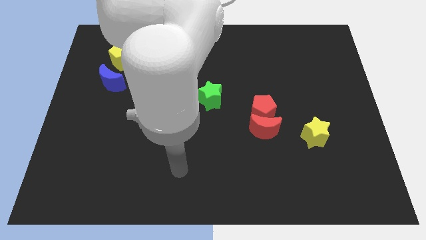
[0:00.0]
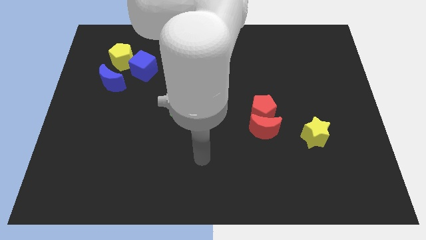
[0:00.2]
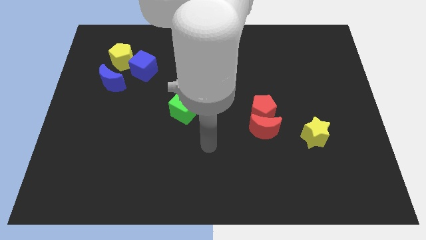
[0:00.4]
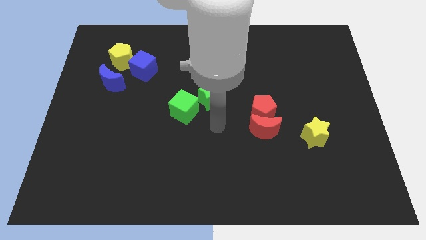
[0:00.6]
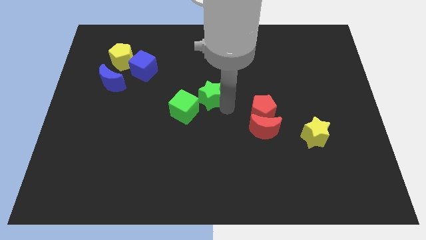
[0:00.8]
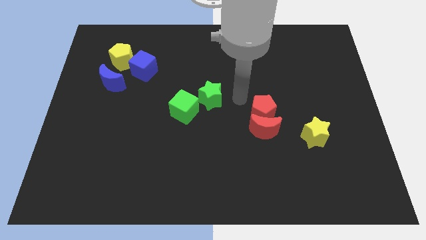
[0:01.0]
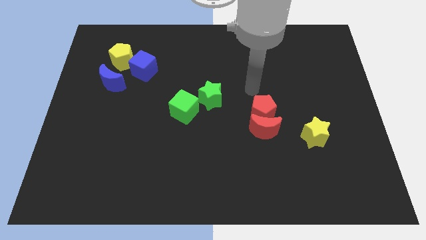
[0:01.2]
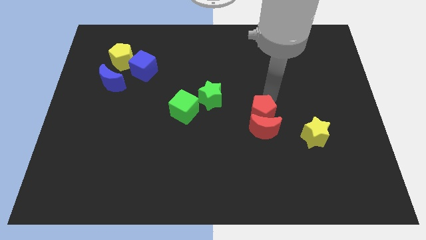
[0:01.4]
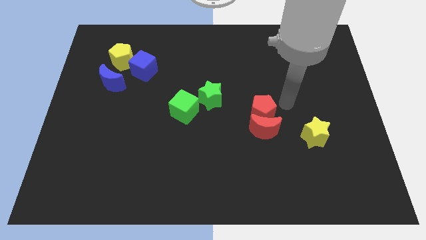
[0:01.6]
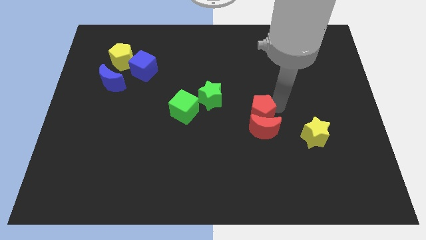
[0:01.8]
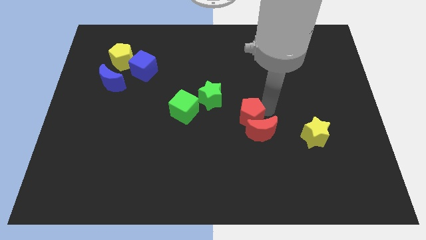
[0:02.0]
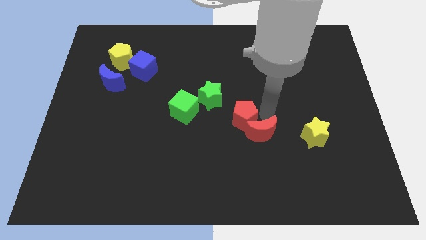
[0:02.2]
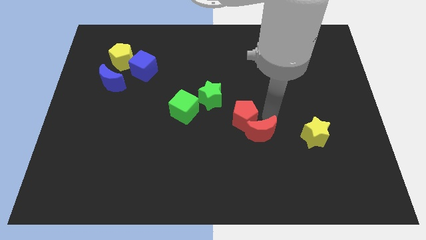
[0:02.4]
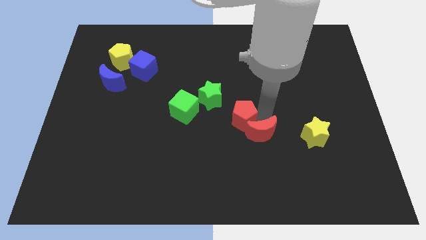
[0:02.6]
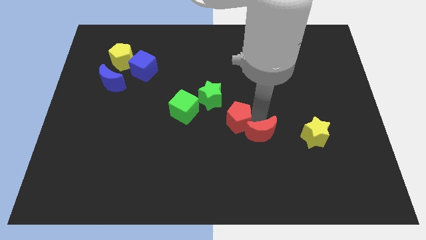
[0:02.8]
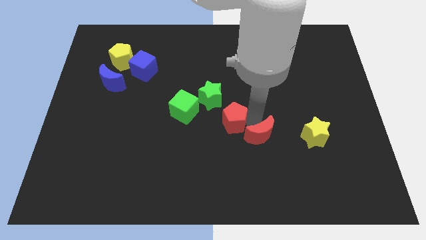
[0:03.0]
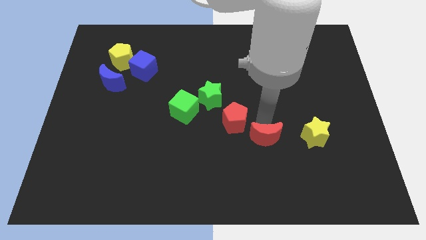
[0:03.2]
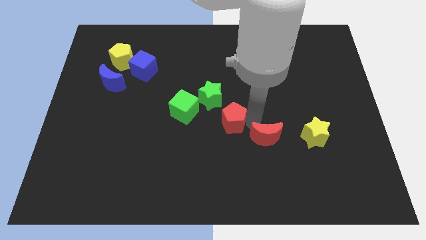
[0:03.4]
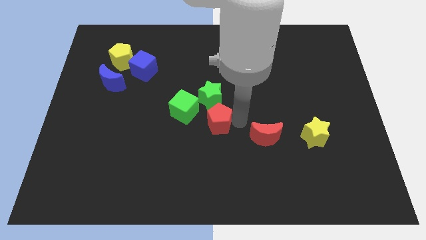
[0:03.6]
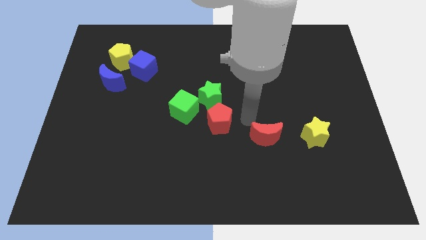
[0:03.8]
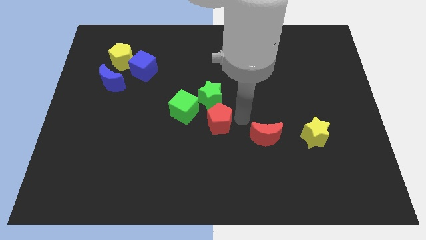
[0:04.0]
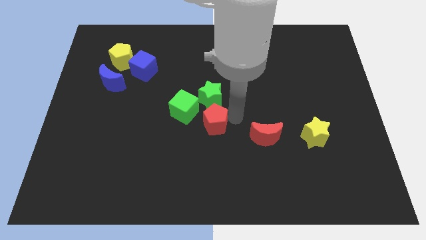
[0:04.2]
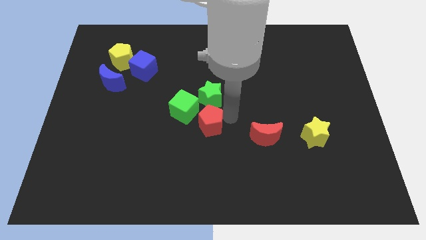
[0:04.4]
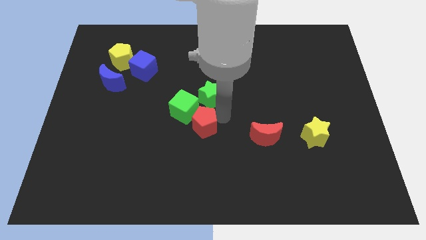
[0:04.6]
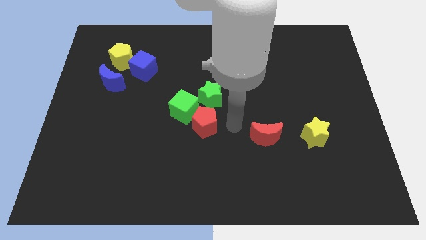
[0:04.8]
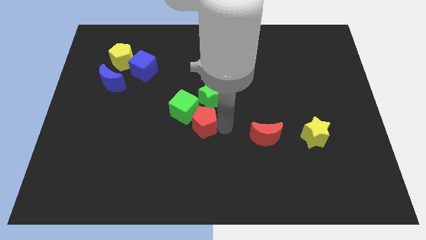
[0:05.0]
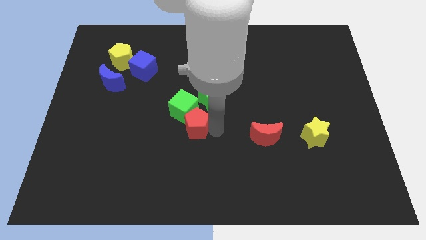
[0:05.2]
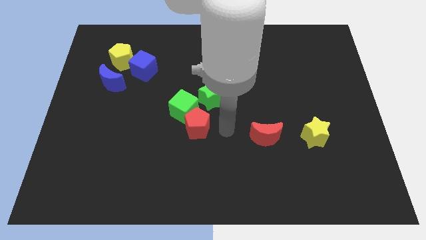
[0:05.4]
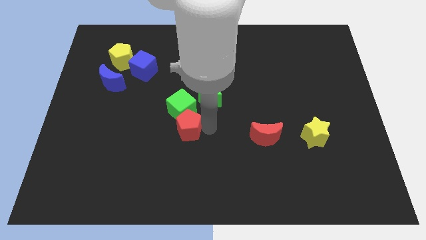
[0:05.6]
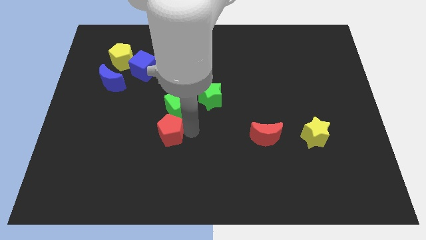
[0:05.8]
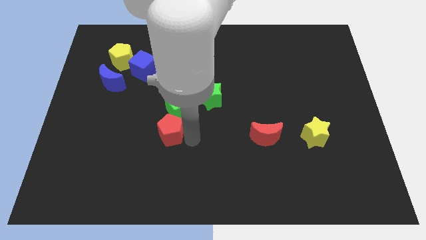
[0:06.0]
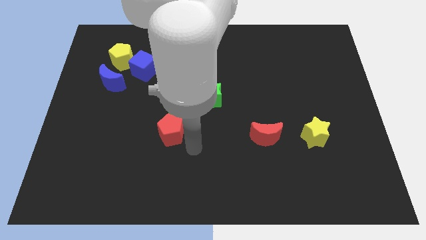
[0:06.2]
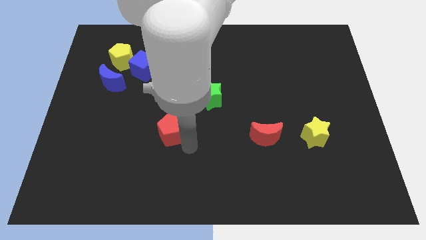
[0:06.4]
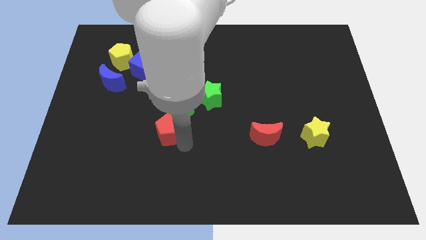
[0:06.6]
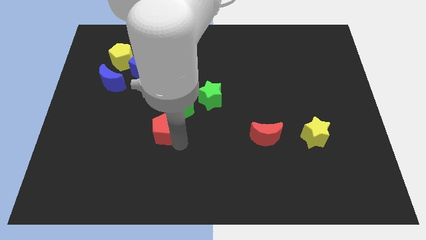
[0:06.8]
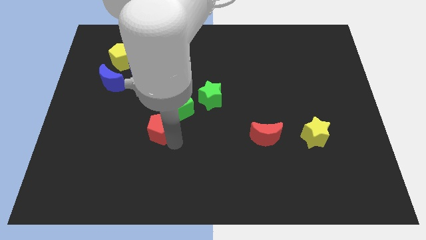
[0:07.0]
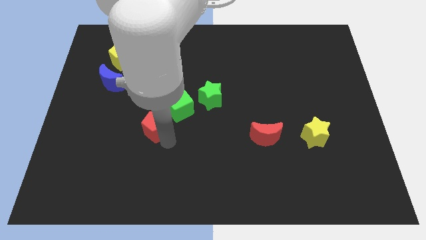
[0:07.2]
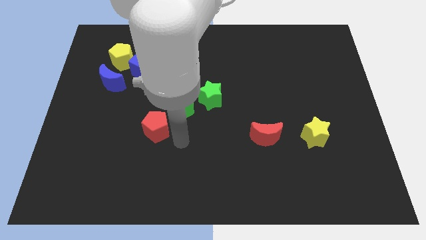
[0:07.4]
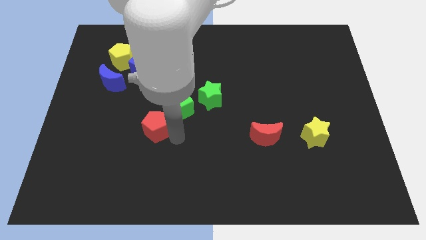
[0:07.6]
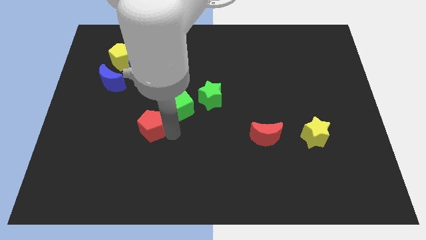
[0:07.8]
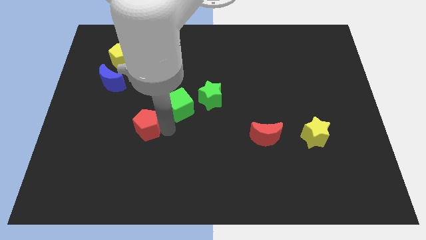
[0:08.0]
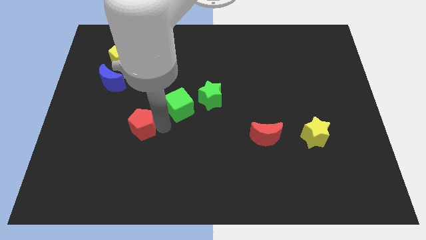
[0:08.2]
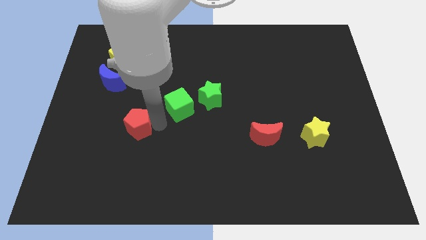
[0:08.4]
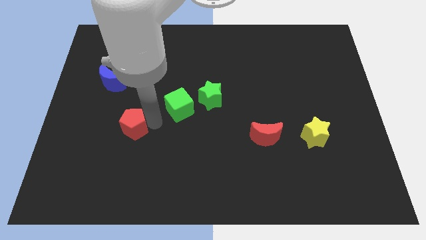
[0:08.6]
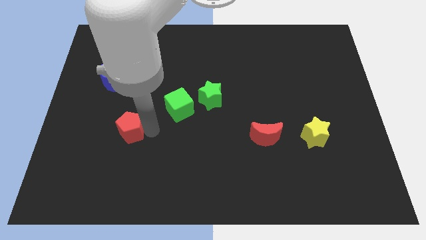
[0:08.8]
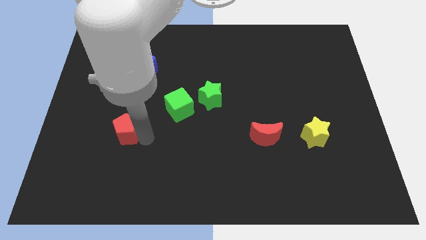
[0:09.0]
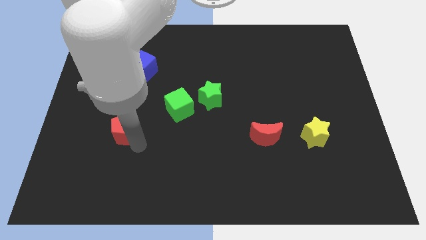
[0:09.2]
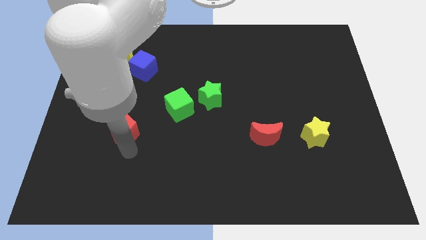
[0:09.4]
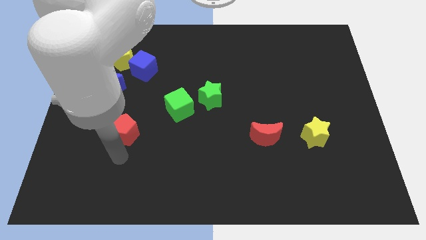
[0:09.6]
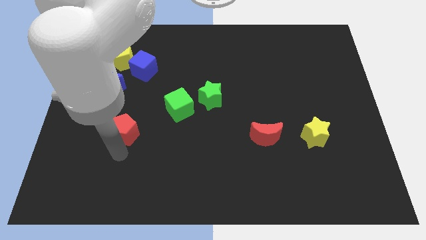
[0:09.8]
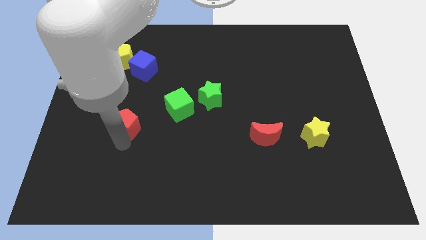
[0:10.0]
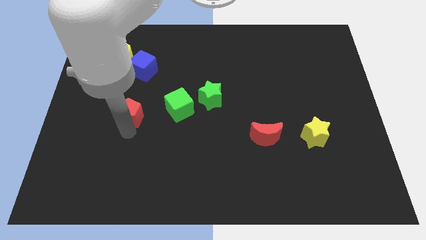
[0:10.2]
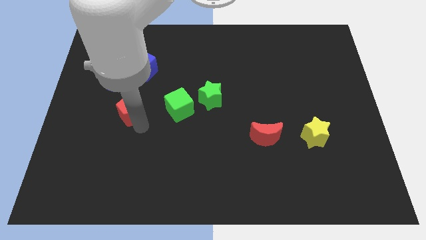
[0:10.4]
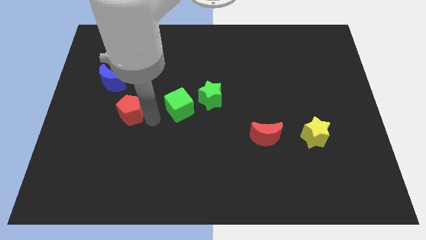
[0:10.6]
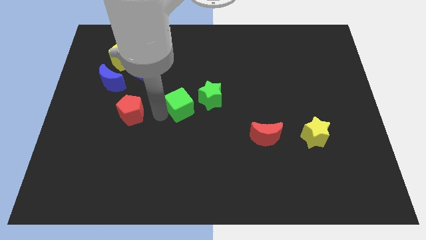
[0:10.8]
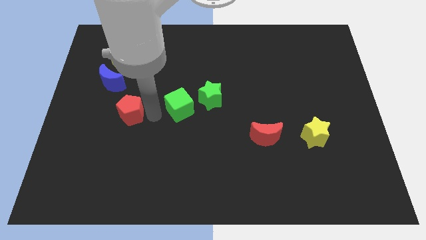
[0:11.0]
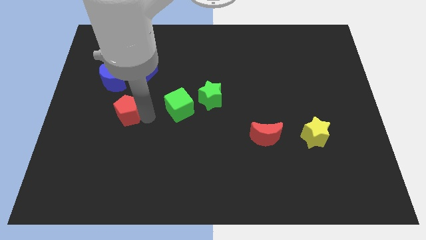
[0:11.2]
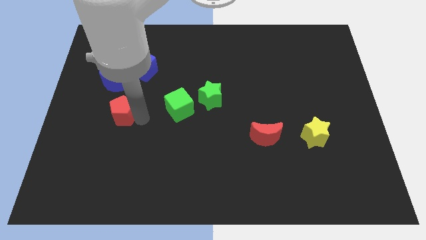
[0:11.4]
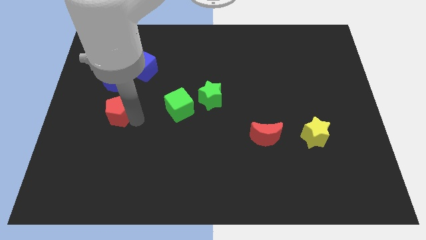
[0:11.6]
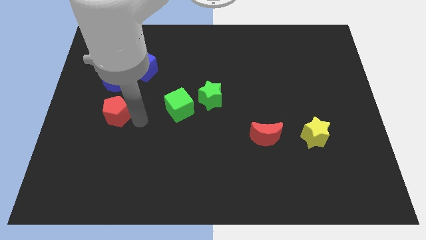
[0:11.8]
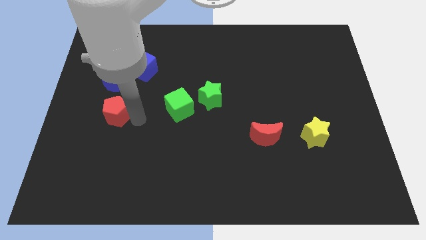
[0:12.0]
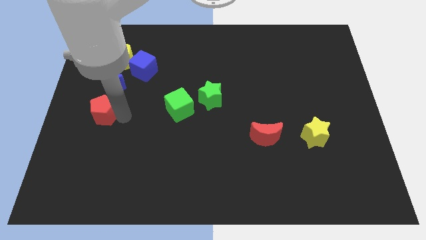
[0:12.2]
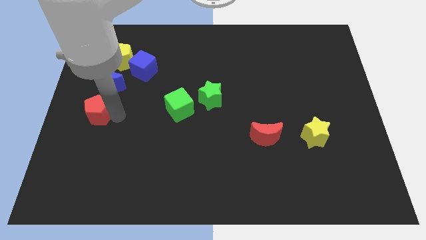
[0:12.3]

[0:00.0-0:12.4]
push the red pentagon to the left side

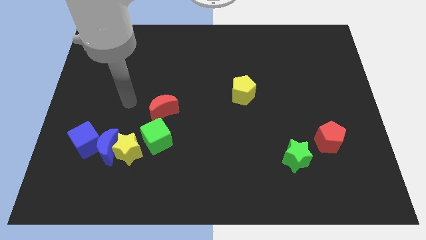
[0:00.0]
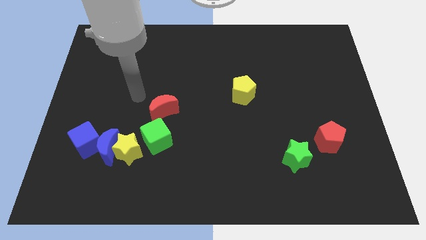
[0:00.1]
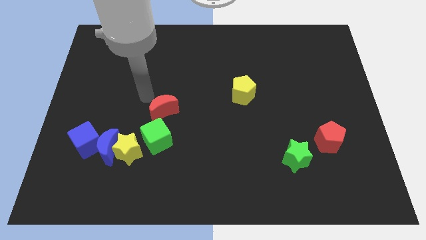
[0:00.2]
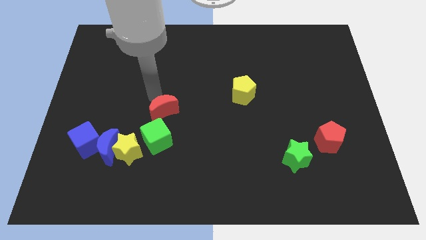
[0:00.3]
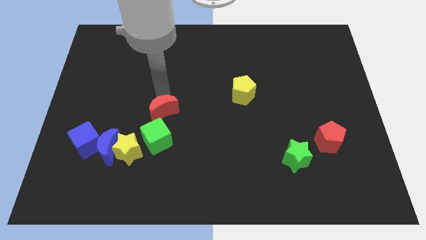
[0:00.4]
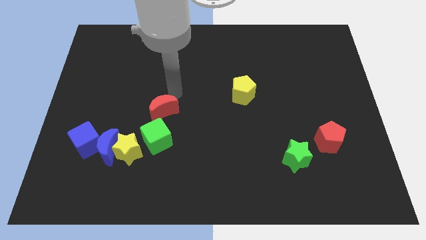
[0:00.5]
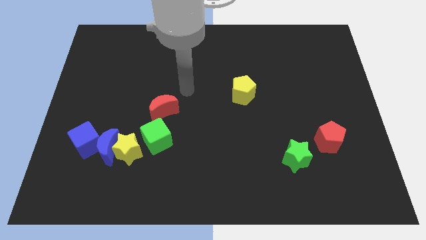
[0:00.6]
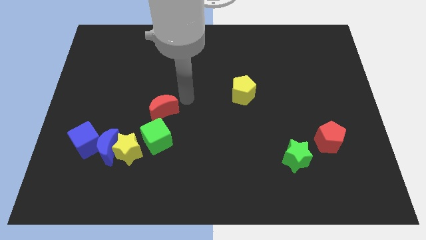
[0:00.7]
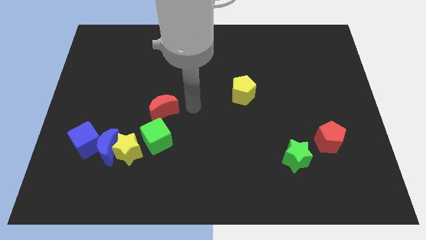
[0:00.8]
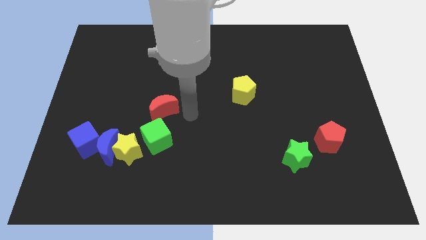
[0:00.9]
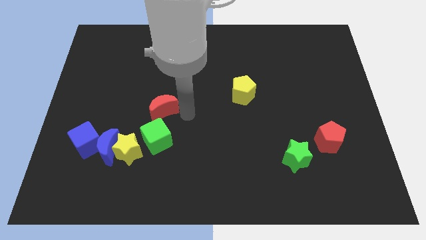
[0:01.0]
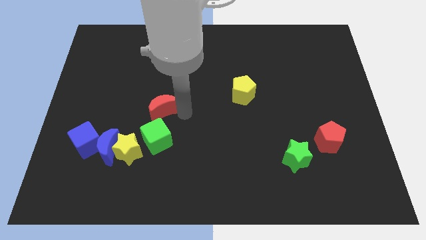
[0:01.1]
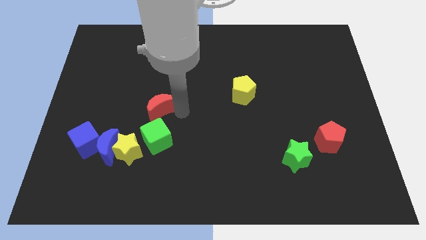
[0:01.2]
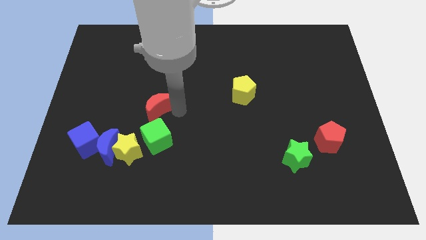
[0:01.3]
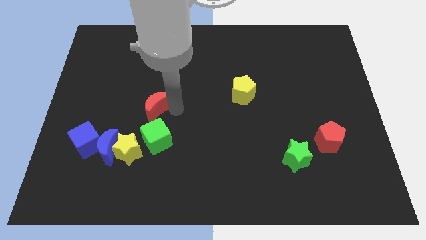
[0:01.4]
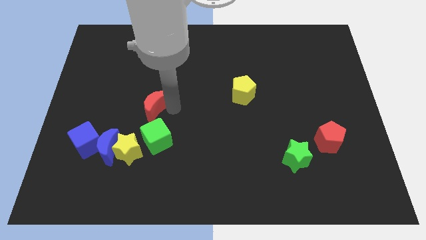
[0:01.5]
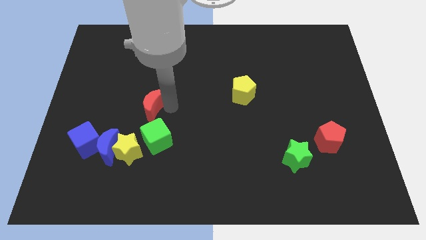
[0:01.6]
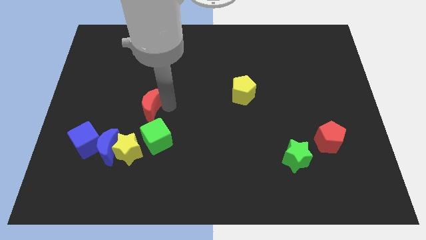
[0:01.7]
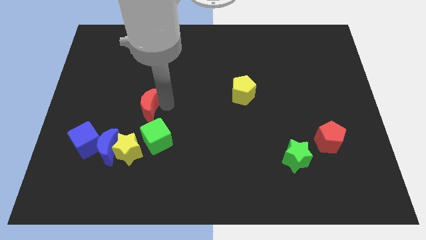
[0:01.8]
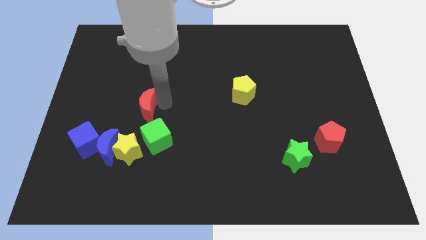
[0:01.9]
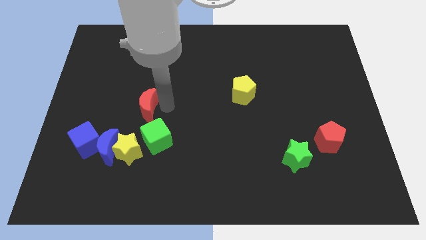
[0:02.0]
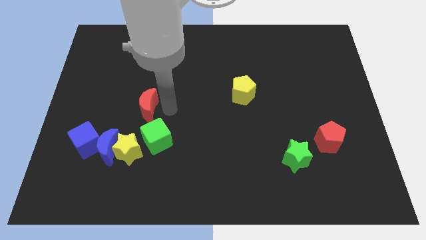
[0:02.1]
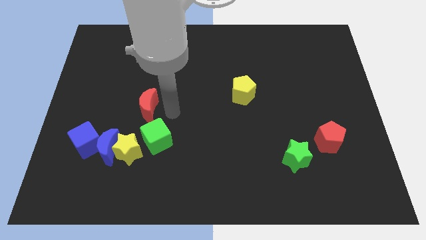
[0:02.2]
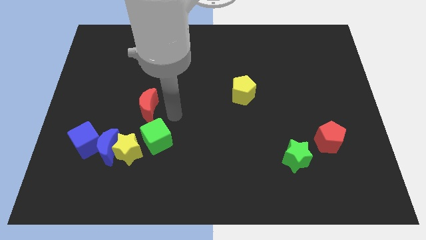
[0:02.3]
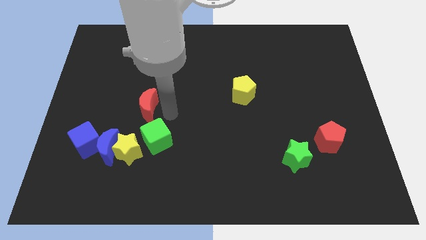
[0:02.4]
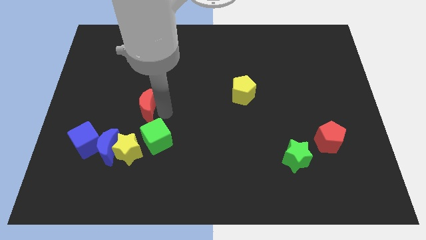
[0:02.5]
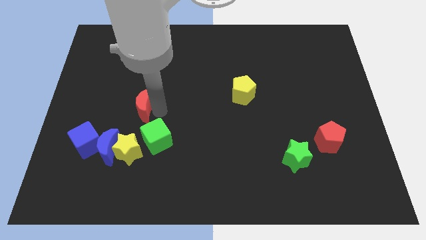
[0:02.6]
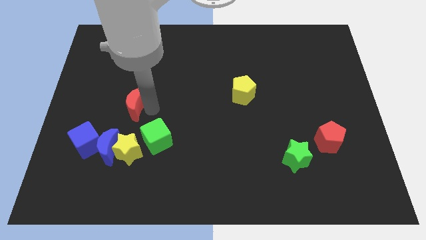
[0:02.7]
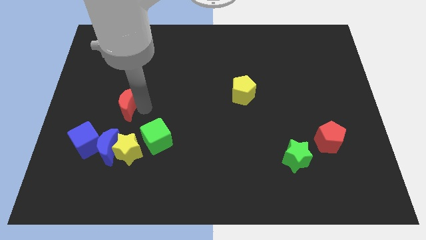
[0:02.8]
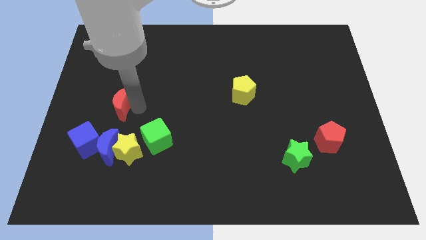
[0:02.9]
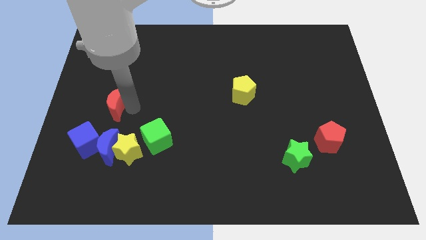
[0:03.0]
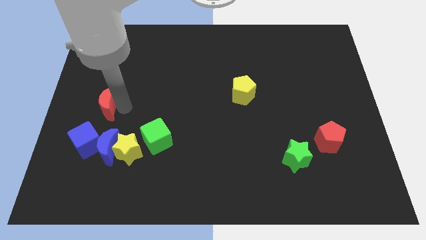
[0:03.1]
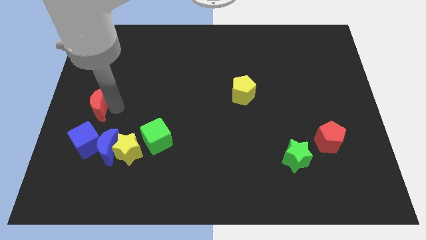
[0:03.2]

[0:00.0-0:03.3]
slide the red moon to the left side
